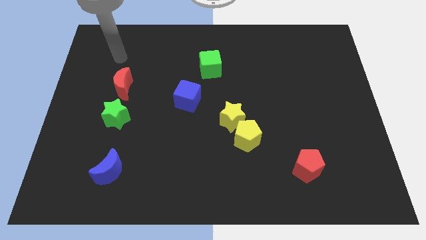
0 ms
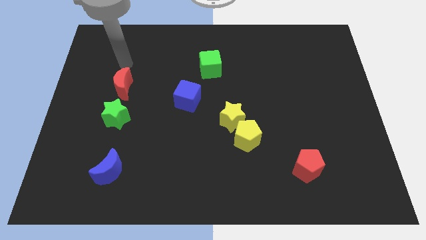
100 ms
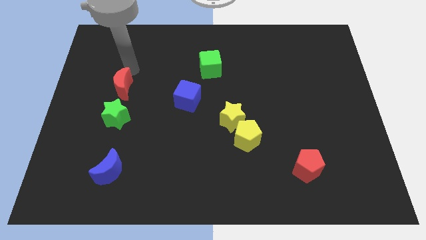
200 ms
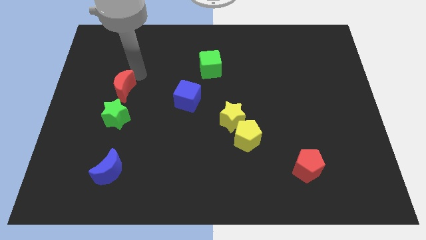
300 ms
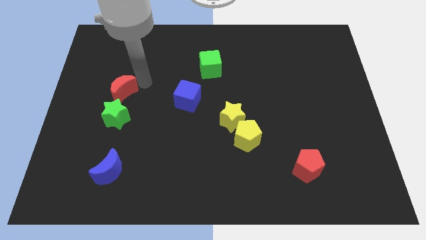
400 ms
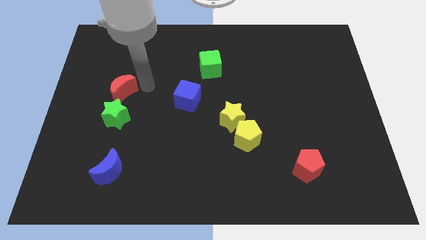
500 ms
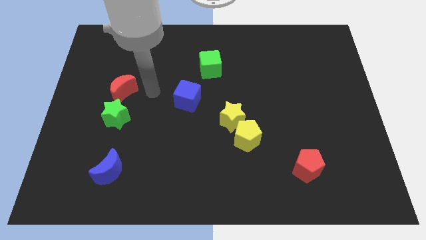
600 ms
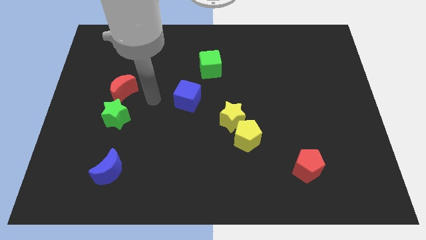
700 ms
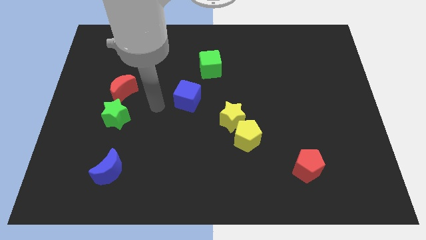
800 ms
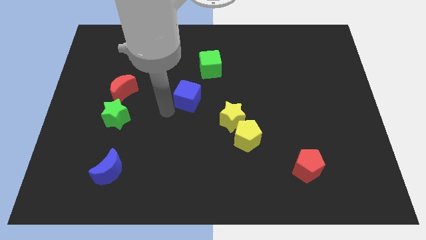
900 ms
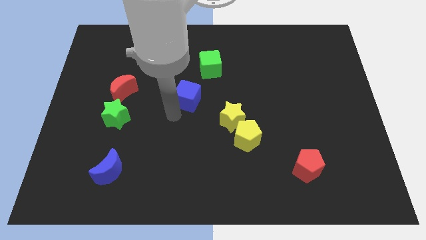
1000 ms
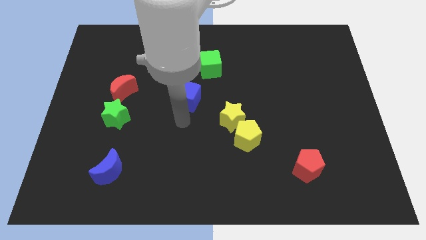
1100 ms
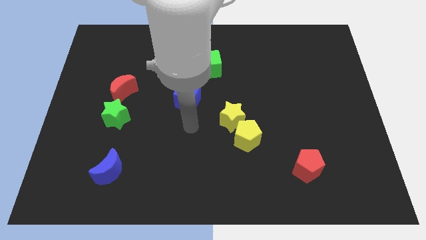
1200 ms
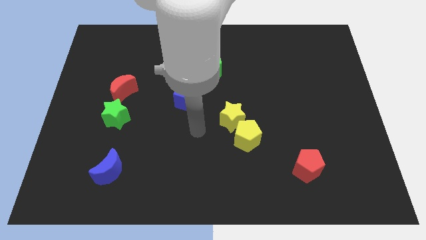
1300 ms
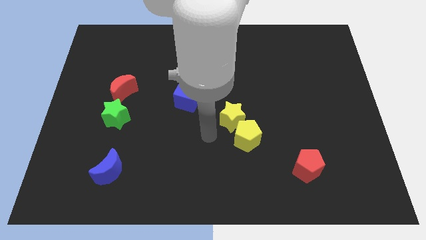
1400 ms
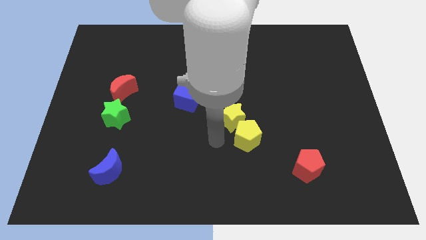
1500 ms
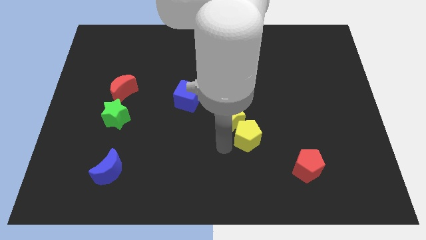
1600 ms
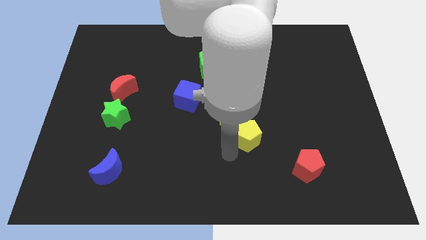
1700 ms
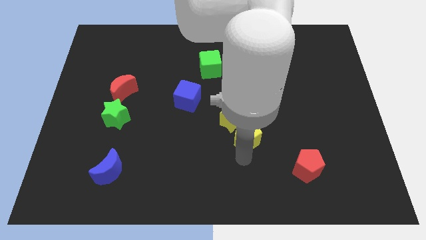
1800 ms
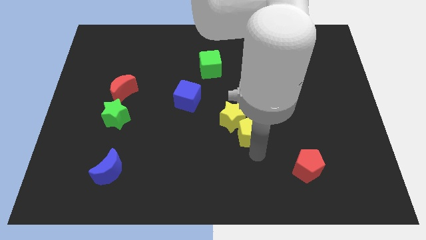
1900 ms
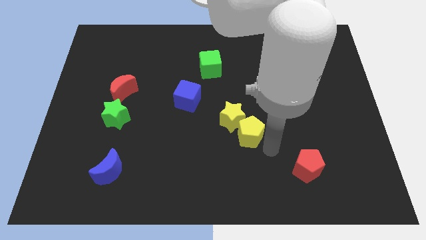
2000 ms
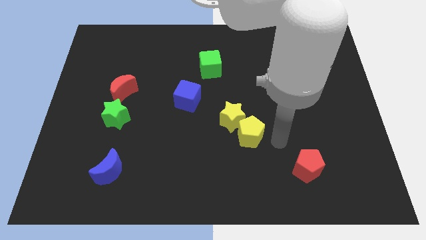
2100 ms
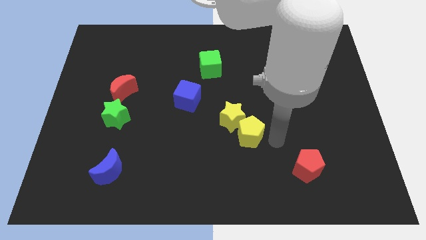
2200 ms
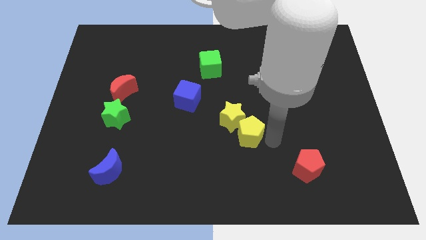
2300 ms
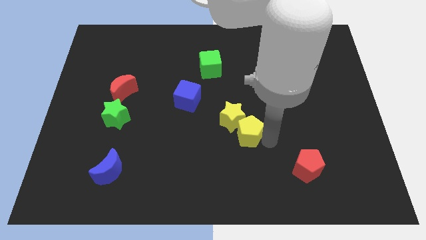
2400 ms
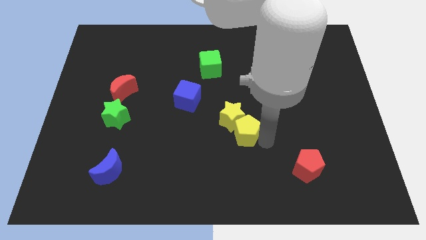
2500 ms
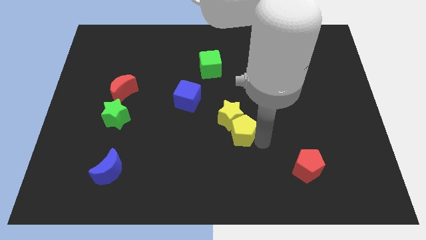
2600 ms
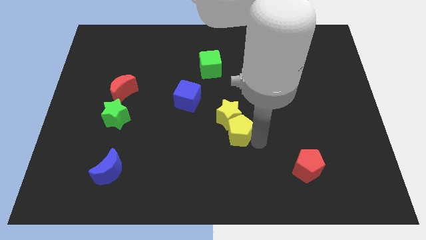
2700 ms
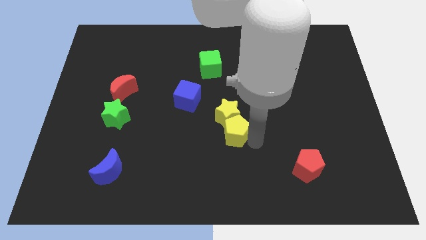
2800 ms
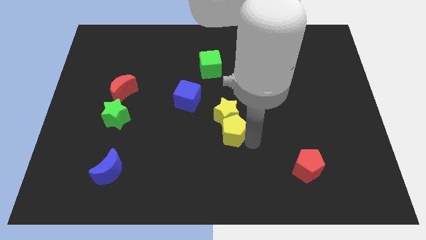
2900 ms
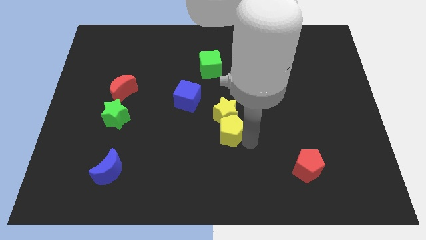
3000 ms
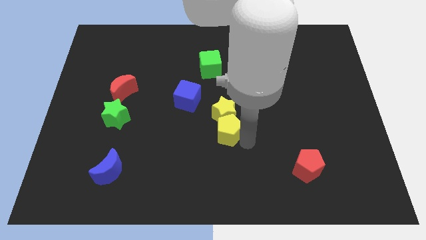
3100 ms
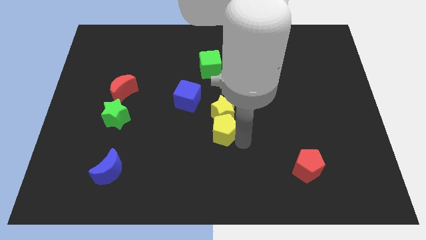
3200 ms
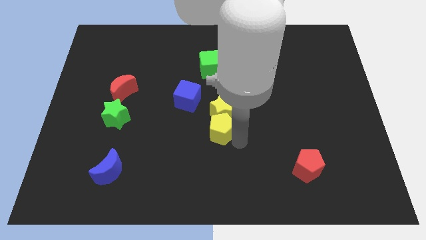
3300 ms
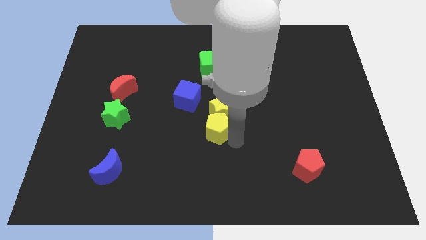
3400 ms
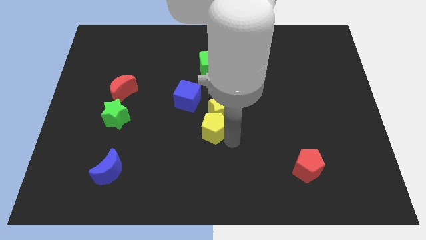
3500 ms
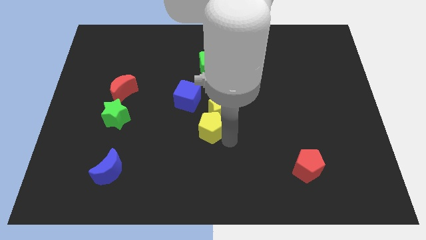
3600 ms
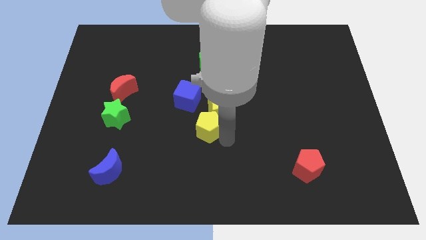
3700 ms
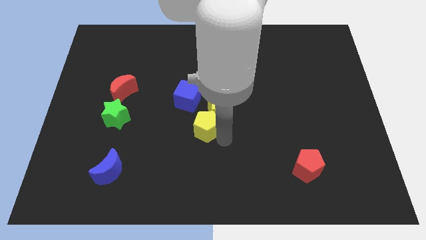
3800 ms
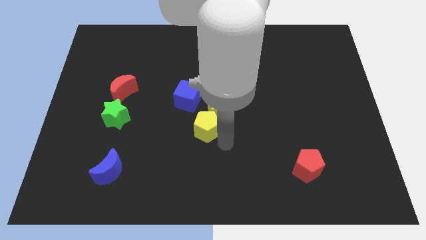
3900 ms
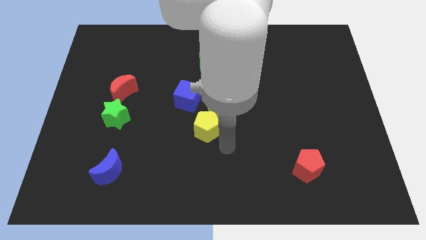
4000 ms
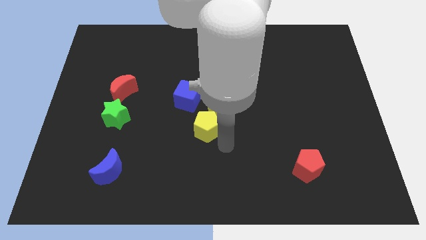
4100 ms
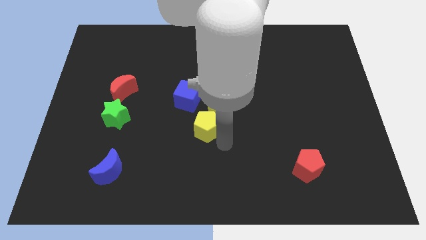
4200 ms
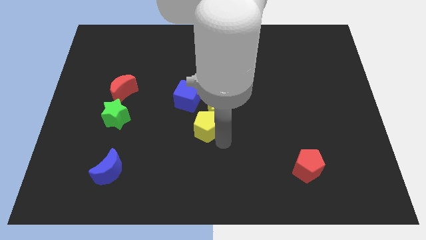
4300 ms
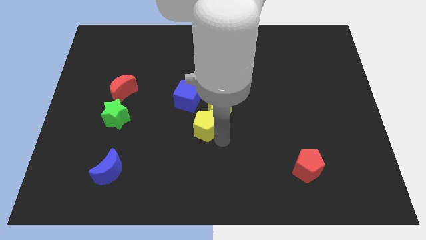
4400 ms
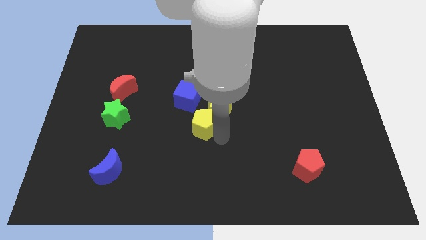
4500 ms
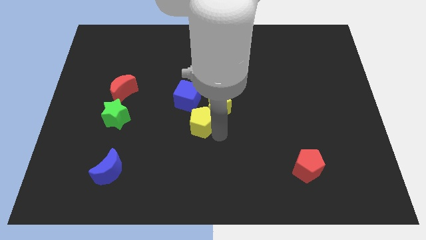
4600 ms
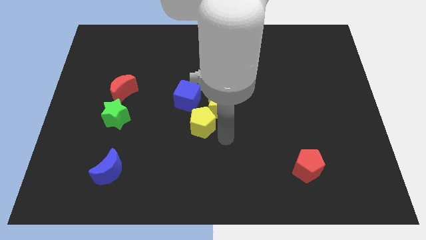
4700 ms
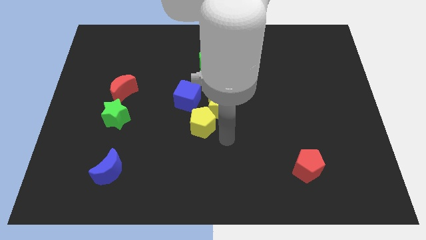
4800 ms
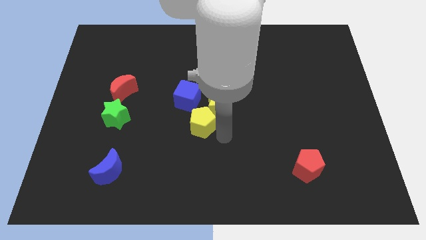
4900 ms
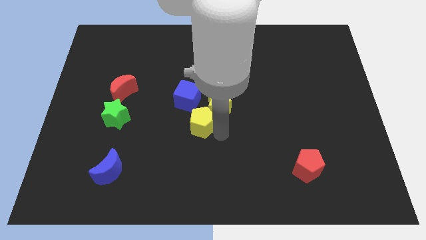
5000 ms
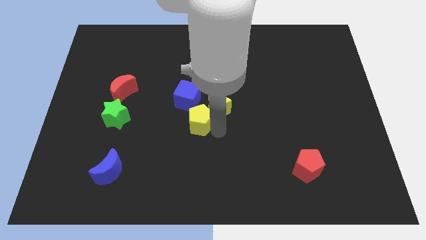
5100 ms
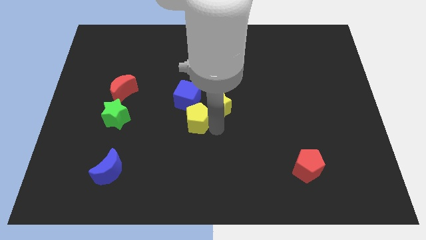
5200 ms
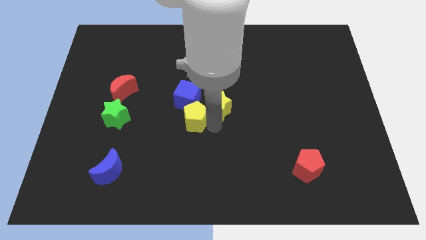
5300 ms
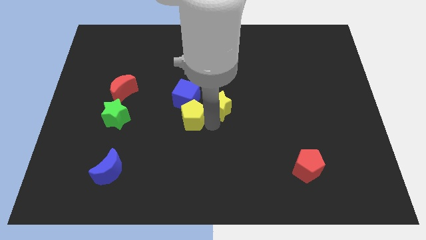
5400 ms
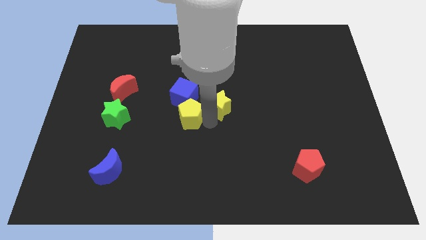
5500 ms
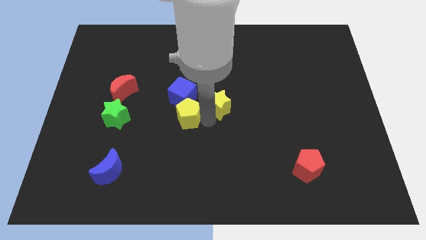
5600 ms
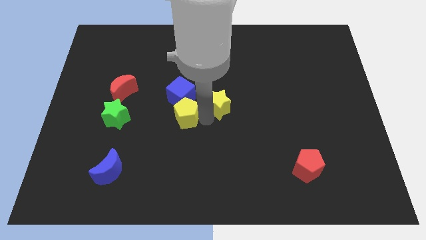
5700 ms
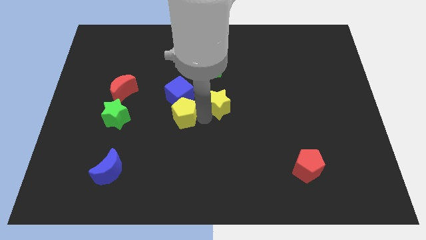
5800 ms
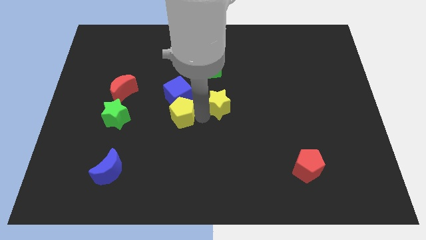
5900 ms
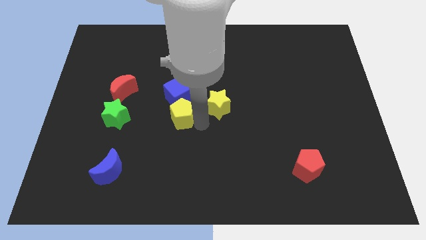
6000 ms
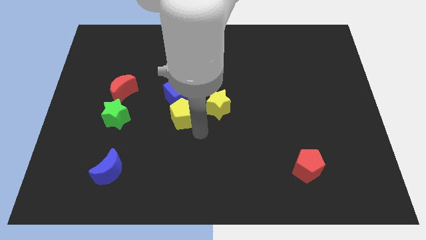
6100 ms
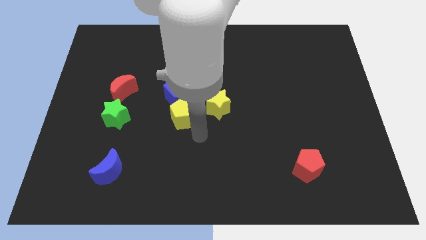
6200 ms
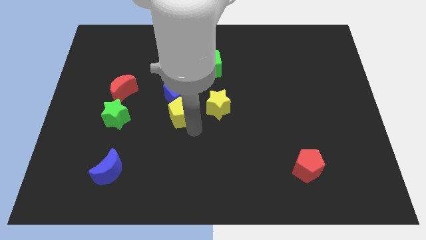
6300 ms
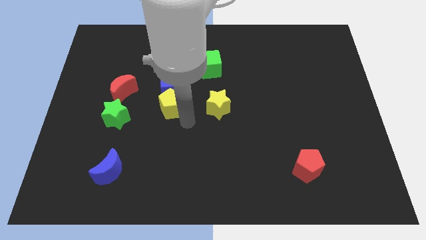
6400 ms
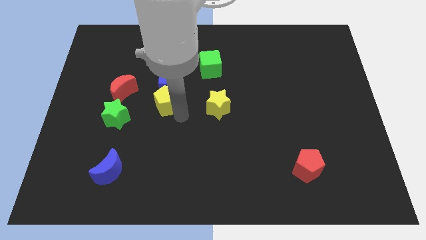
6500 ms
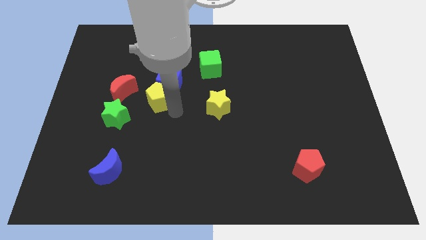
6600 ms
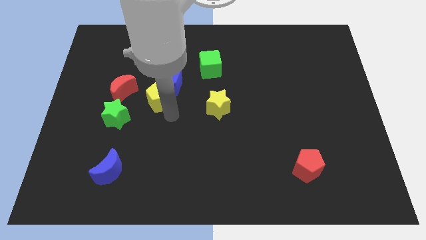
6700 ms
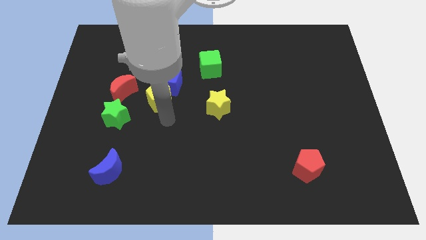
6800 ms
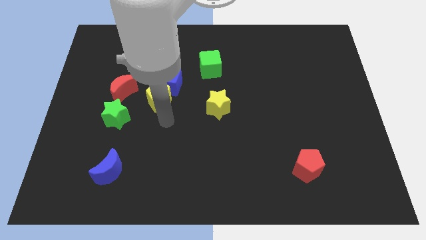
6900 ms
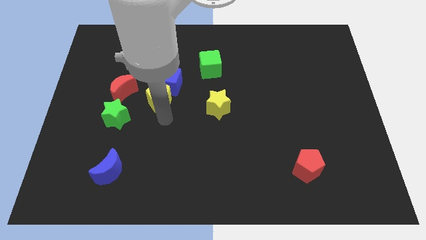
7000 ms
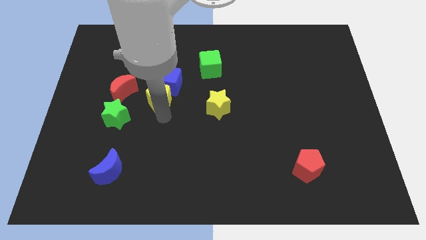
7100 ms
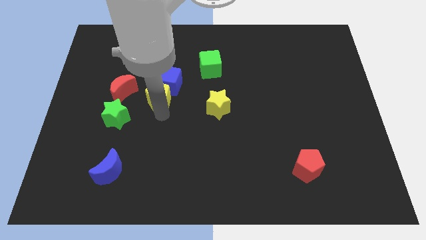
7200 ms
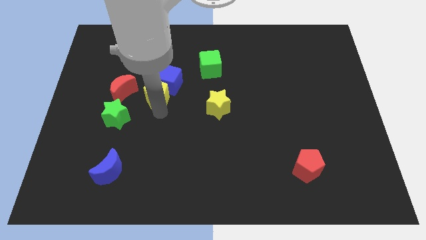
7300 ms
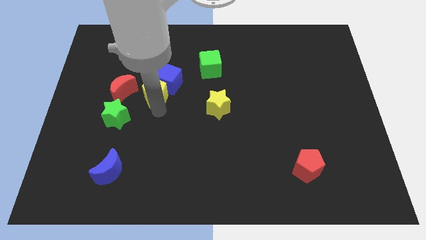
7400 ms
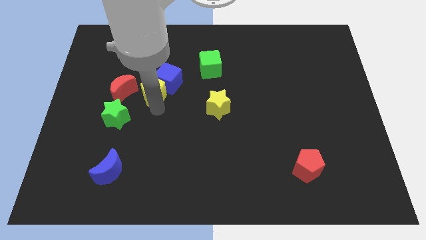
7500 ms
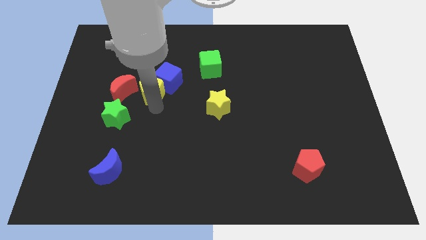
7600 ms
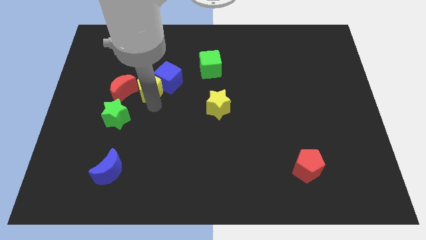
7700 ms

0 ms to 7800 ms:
move the yellow pentagon to the top right side of the red moon
